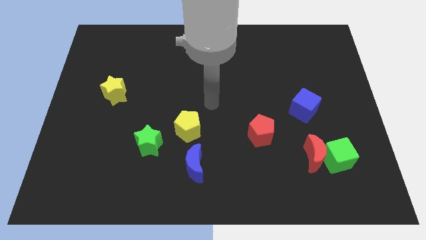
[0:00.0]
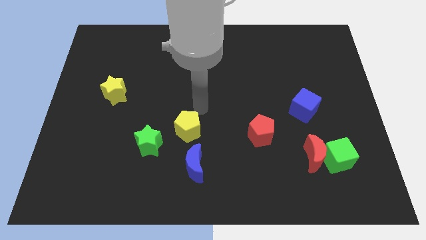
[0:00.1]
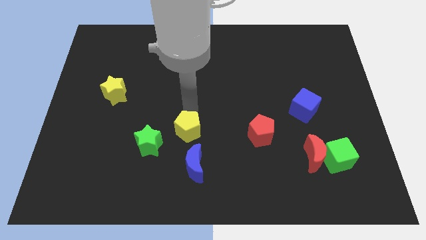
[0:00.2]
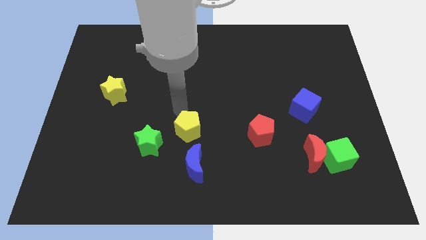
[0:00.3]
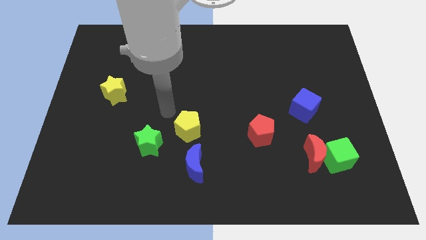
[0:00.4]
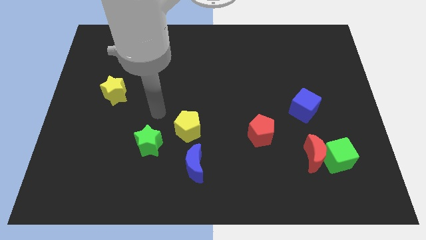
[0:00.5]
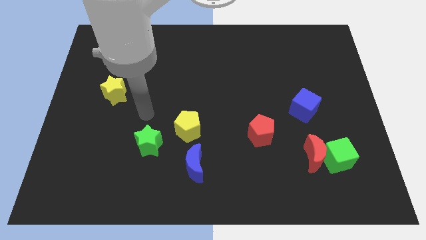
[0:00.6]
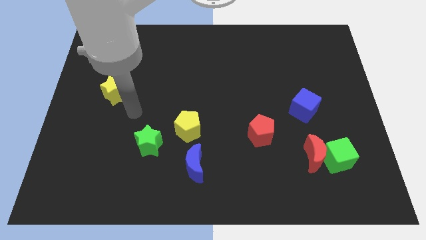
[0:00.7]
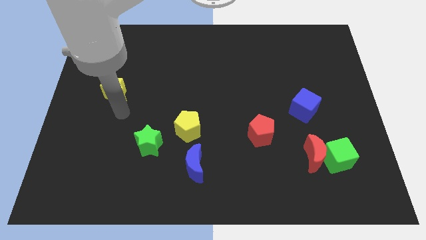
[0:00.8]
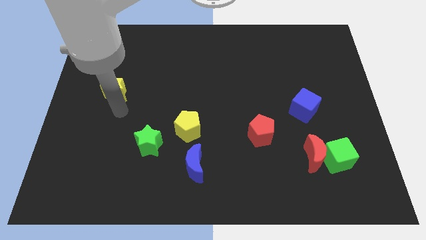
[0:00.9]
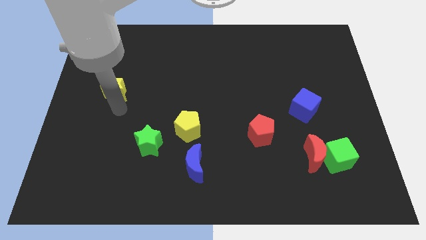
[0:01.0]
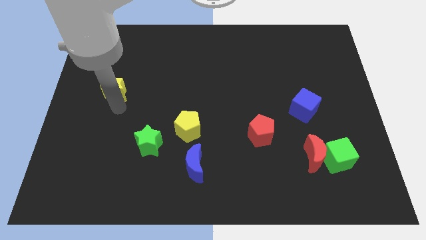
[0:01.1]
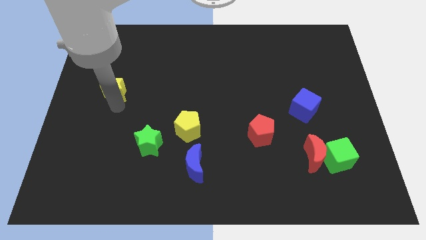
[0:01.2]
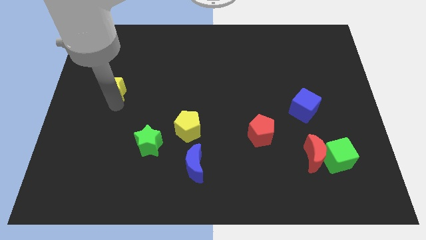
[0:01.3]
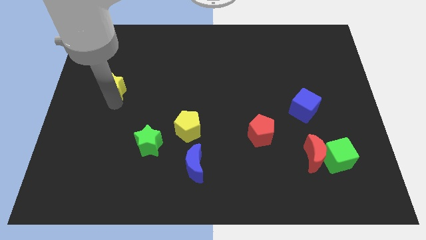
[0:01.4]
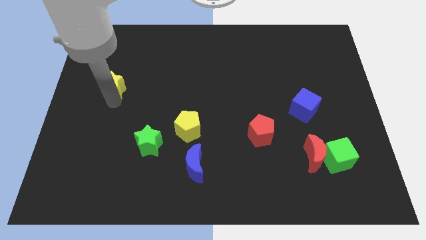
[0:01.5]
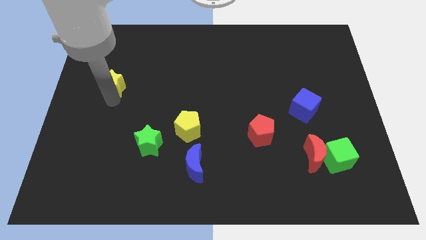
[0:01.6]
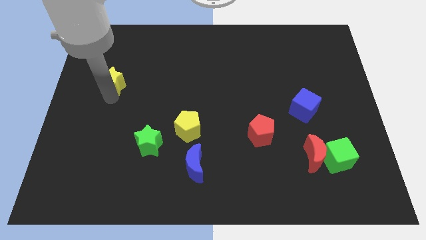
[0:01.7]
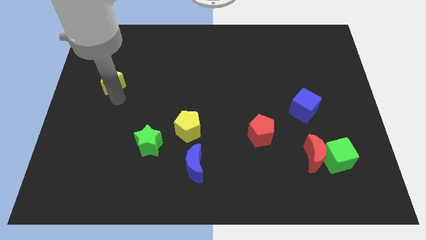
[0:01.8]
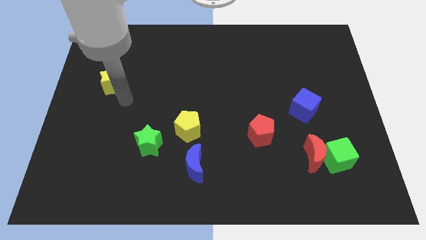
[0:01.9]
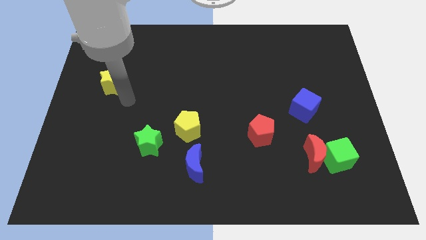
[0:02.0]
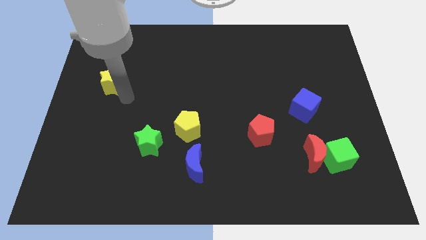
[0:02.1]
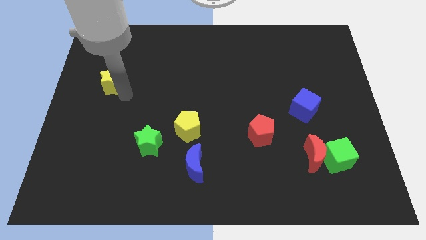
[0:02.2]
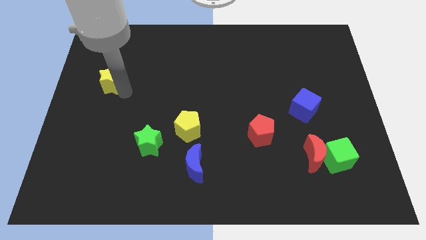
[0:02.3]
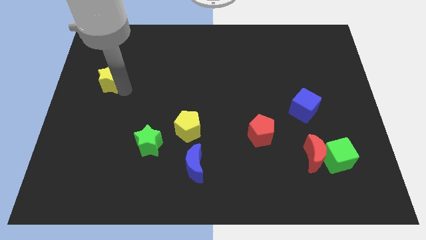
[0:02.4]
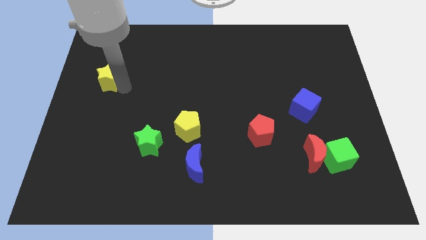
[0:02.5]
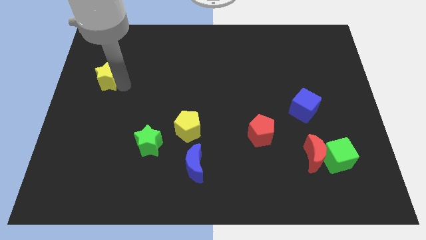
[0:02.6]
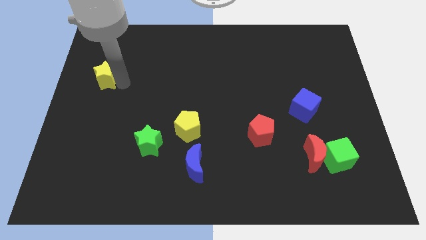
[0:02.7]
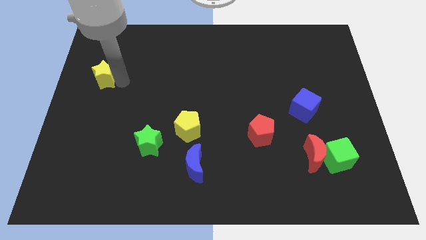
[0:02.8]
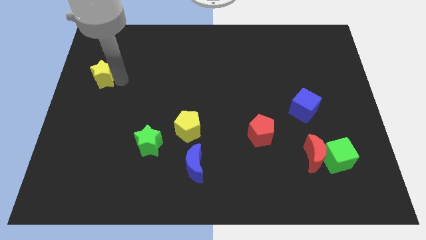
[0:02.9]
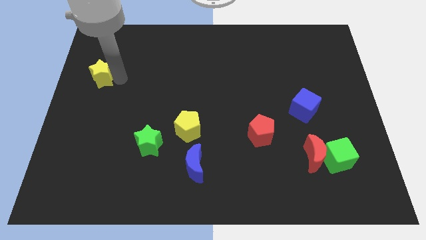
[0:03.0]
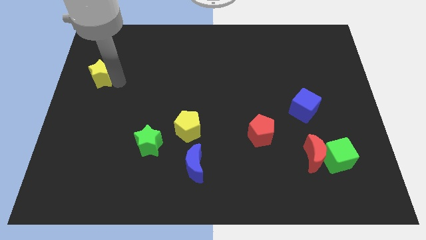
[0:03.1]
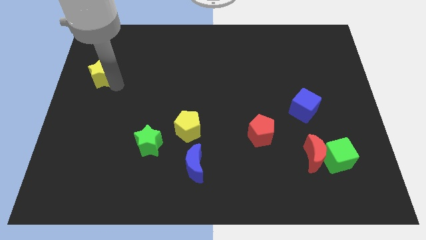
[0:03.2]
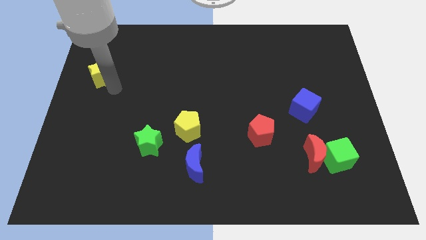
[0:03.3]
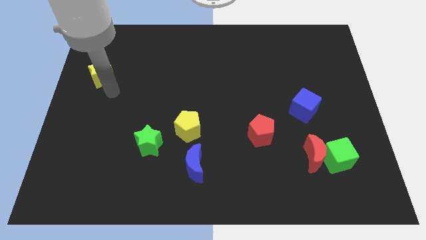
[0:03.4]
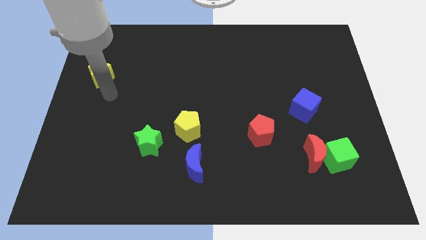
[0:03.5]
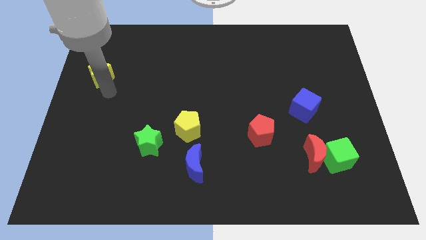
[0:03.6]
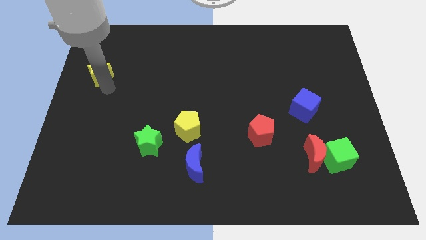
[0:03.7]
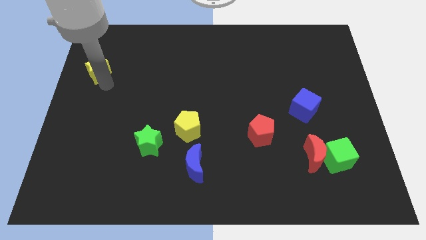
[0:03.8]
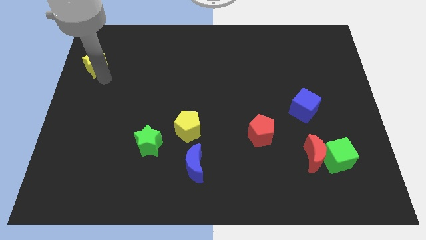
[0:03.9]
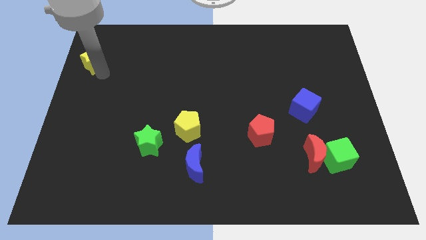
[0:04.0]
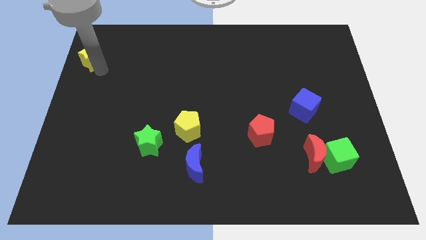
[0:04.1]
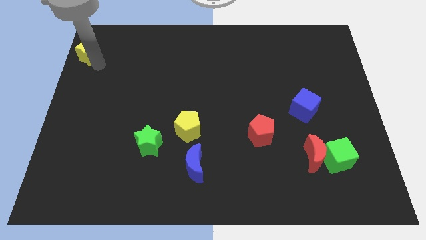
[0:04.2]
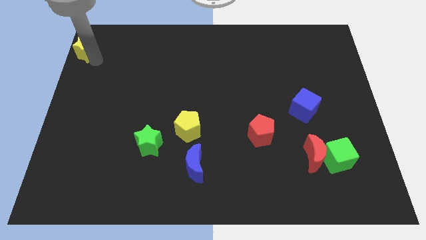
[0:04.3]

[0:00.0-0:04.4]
put the yellow star to the top left

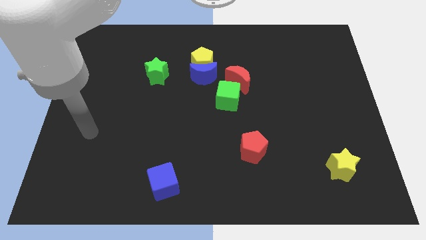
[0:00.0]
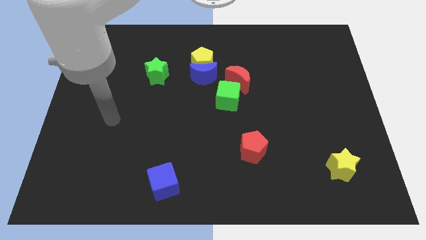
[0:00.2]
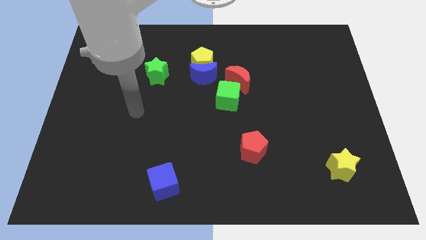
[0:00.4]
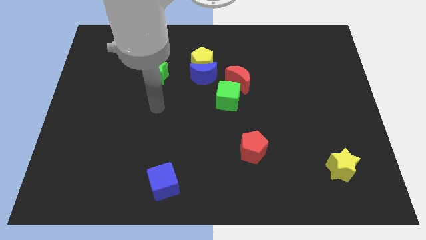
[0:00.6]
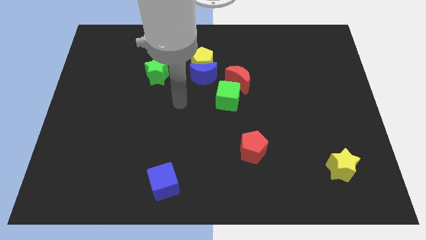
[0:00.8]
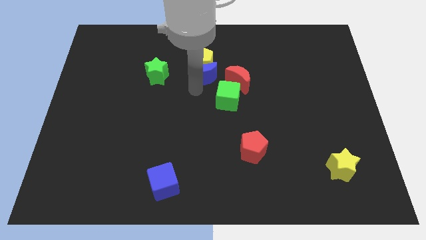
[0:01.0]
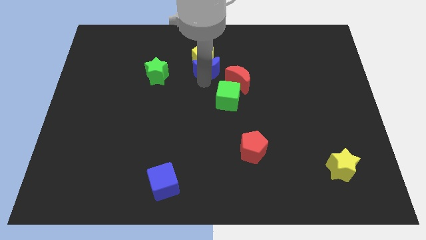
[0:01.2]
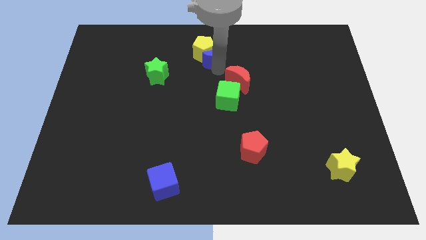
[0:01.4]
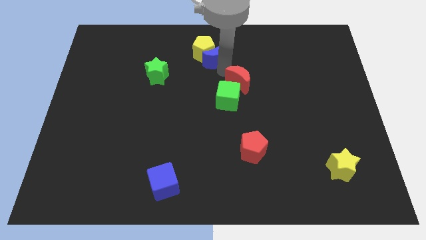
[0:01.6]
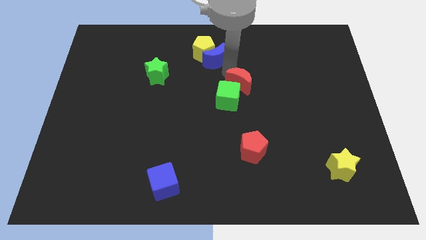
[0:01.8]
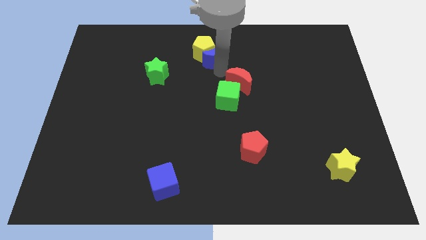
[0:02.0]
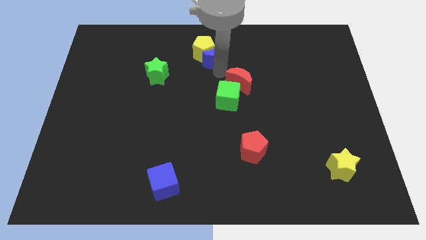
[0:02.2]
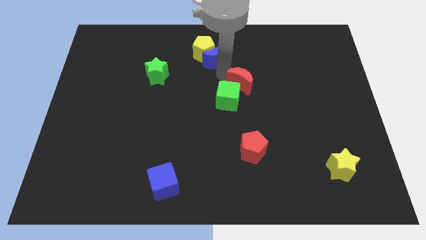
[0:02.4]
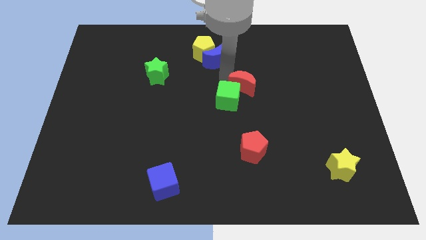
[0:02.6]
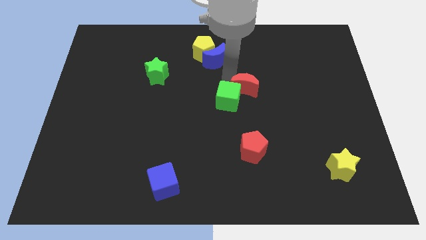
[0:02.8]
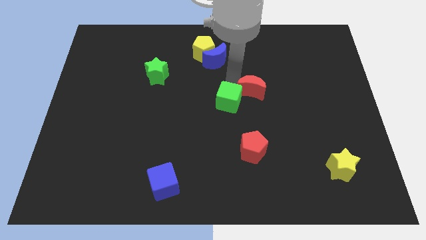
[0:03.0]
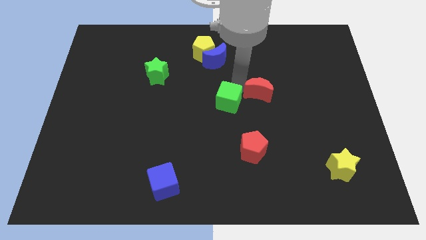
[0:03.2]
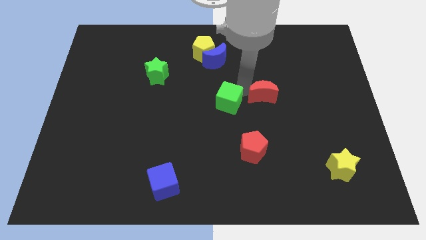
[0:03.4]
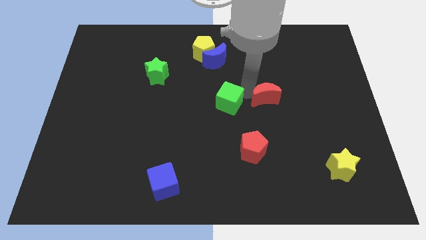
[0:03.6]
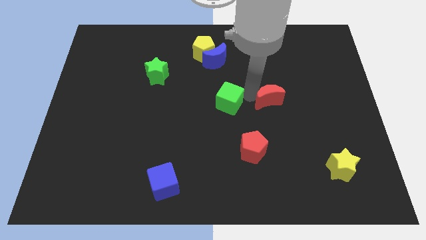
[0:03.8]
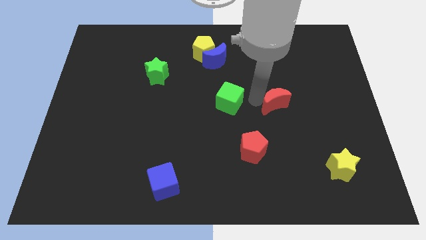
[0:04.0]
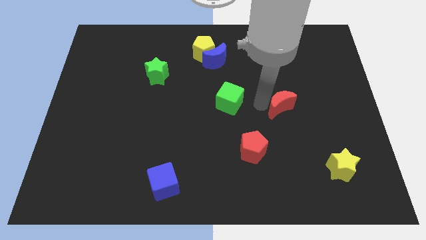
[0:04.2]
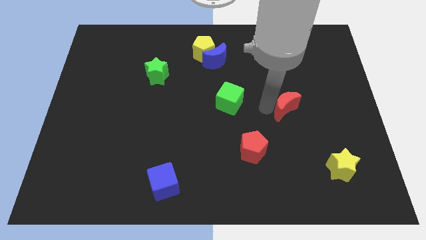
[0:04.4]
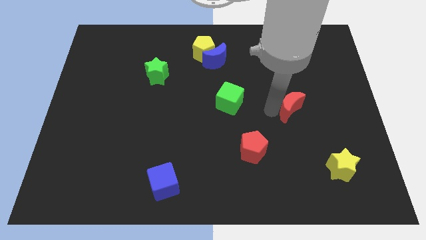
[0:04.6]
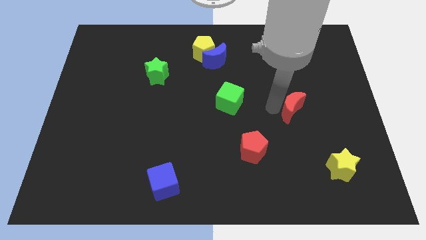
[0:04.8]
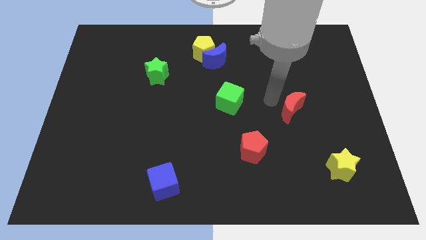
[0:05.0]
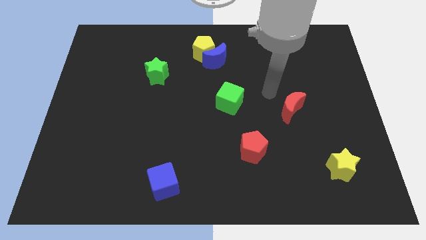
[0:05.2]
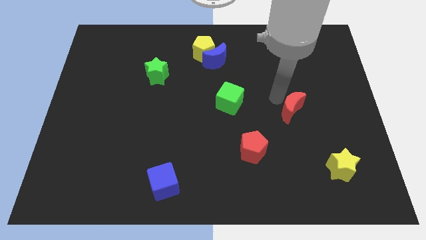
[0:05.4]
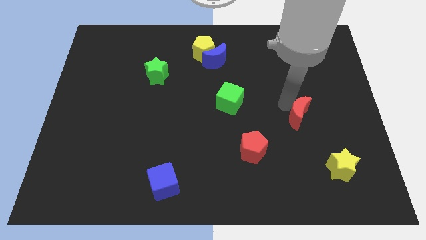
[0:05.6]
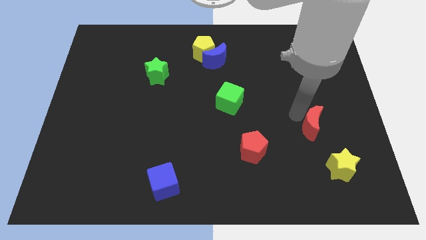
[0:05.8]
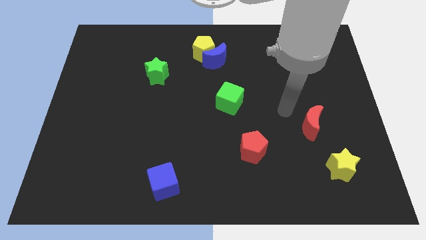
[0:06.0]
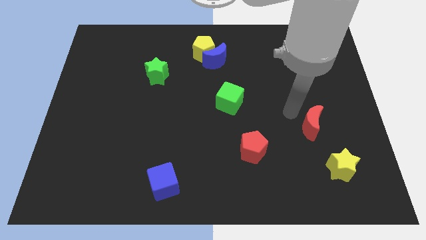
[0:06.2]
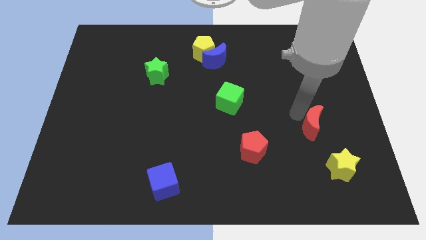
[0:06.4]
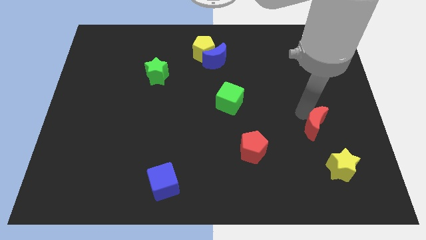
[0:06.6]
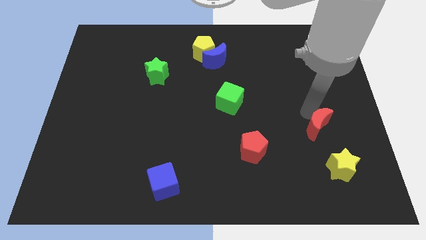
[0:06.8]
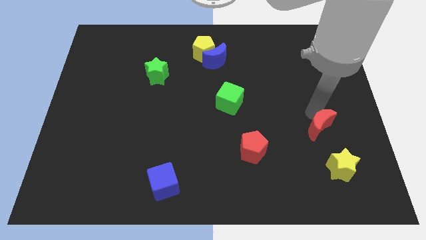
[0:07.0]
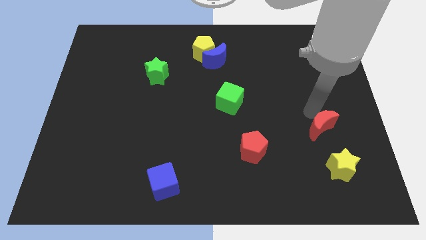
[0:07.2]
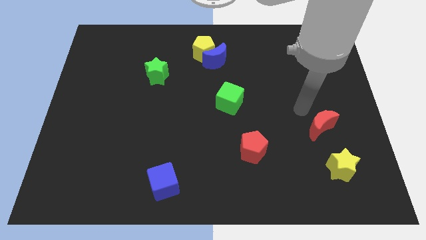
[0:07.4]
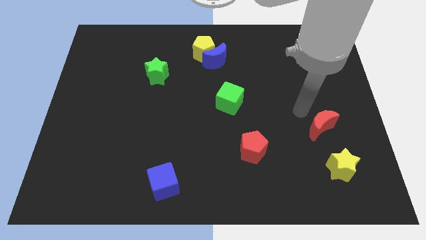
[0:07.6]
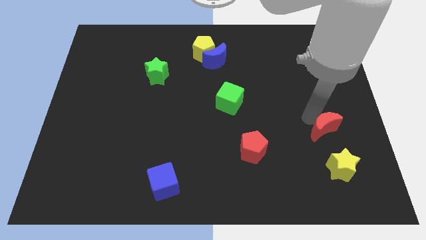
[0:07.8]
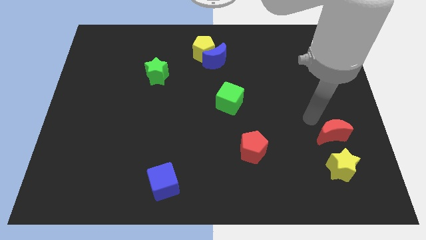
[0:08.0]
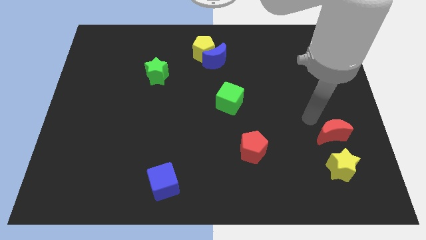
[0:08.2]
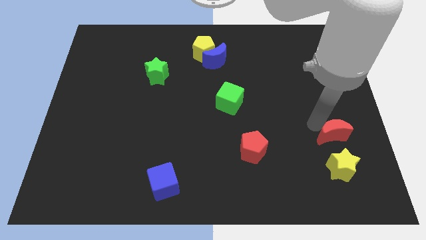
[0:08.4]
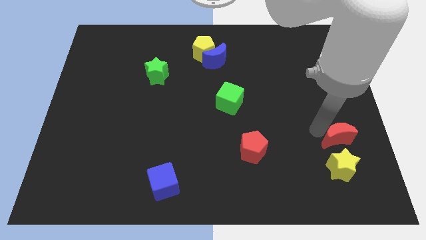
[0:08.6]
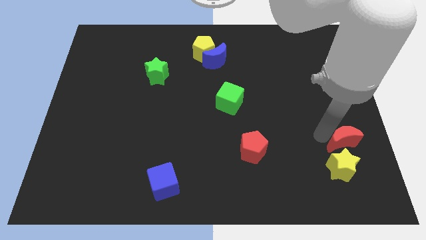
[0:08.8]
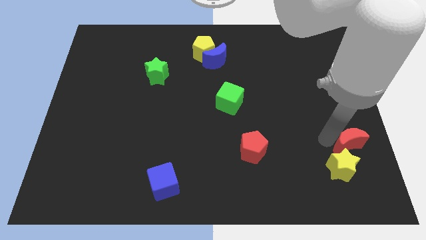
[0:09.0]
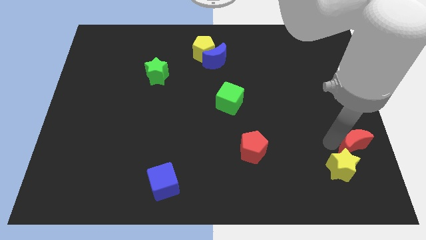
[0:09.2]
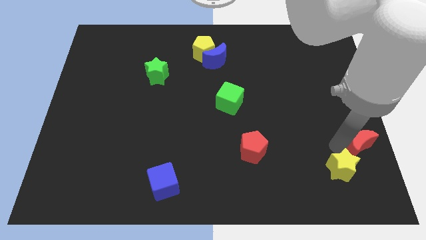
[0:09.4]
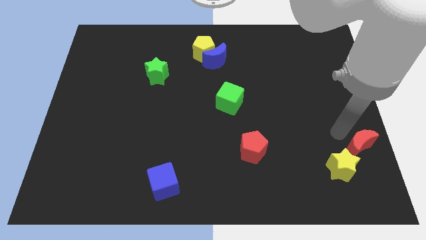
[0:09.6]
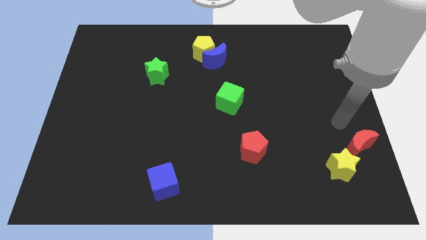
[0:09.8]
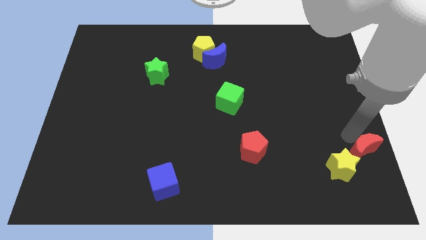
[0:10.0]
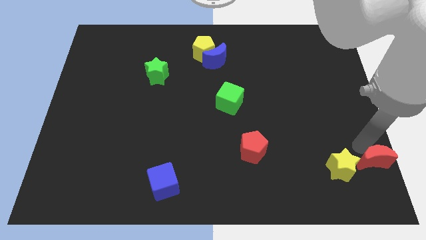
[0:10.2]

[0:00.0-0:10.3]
push the red moon to the bottom right of the board
